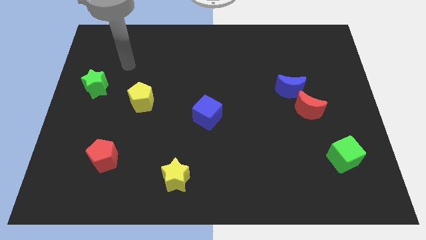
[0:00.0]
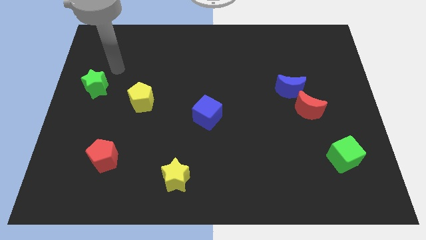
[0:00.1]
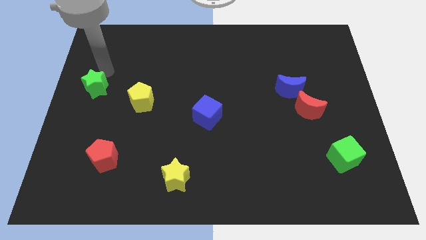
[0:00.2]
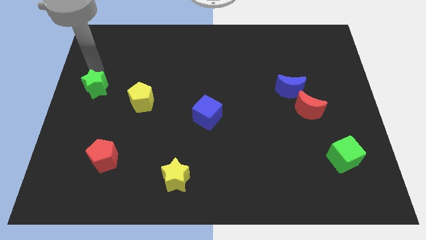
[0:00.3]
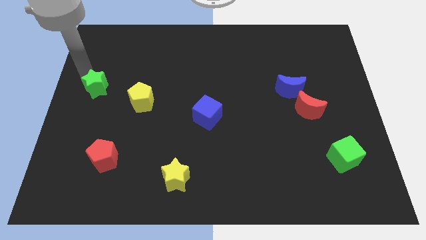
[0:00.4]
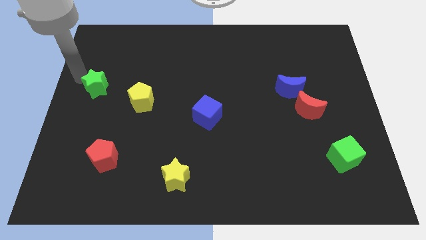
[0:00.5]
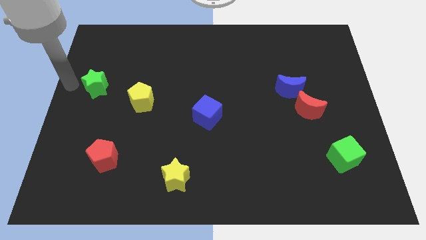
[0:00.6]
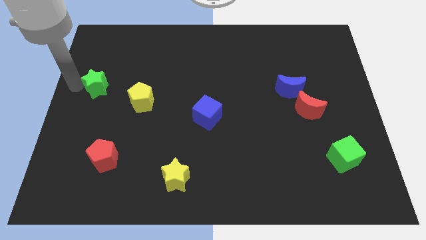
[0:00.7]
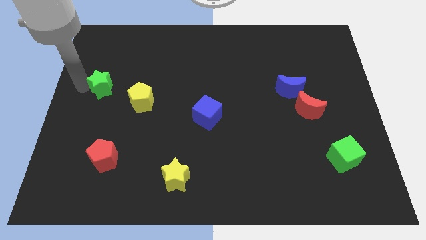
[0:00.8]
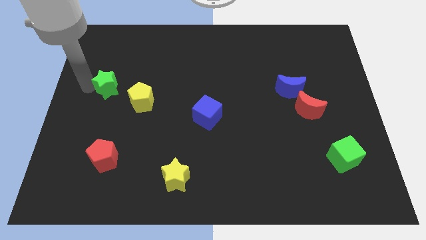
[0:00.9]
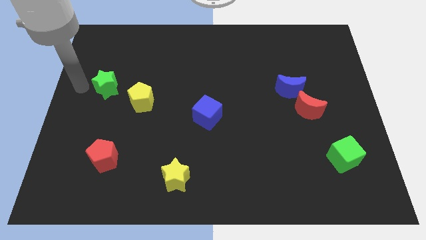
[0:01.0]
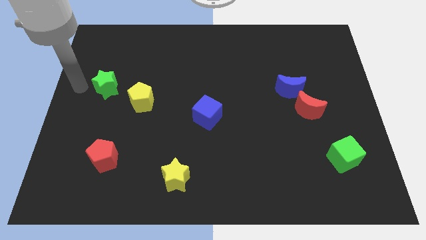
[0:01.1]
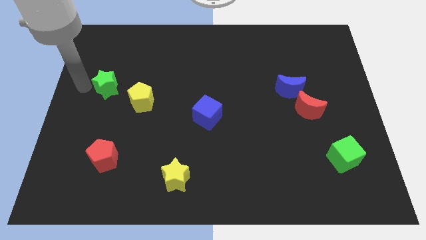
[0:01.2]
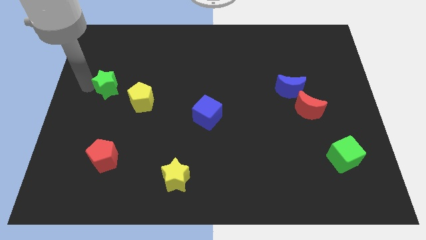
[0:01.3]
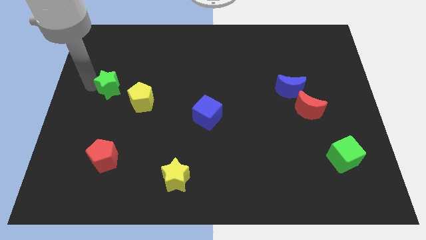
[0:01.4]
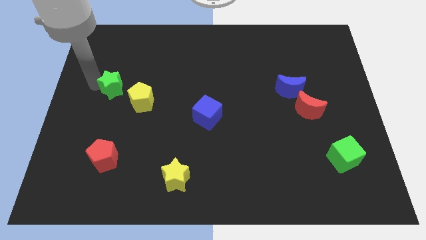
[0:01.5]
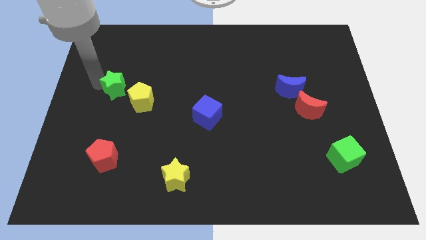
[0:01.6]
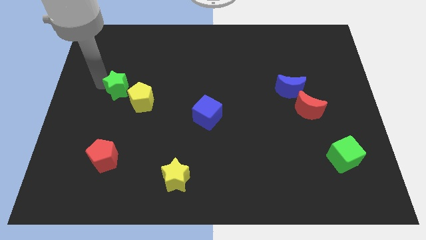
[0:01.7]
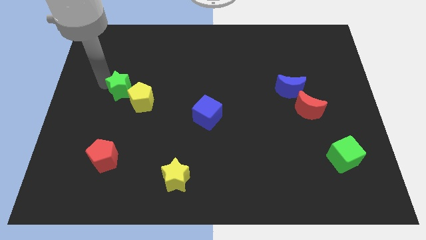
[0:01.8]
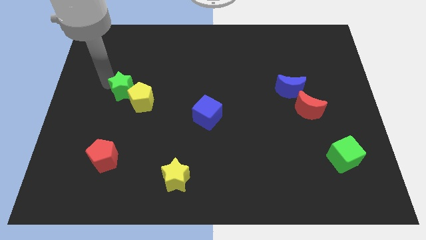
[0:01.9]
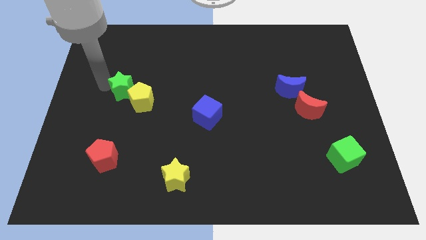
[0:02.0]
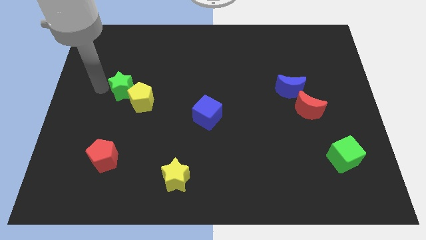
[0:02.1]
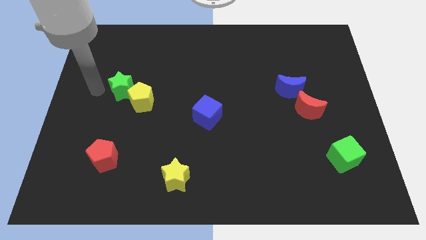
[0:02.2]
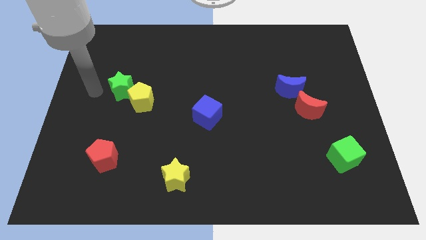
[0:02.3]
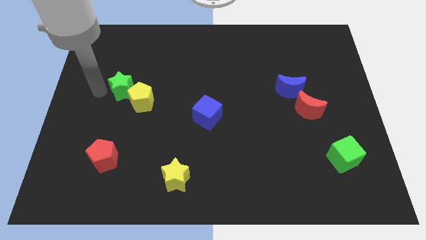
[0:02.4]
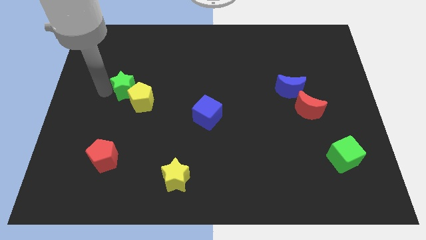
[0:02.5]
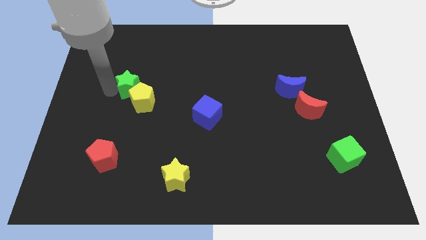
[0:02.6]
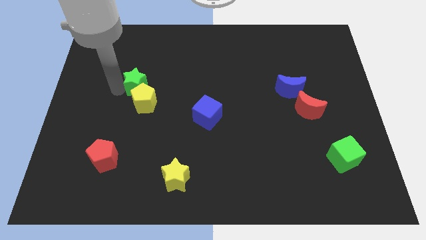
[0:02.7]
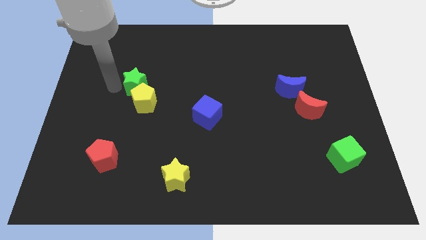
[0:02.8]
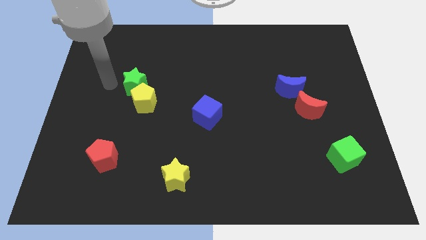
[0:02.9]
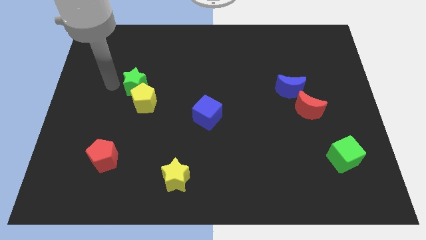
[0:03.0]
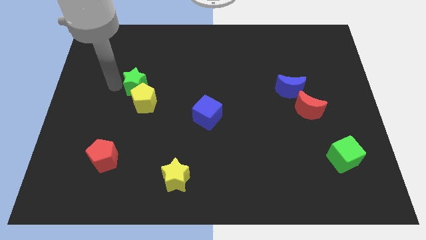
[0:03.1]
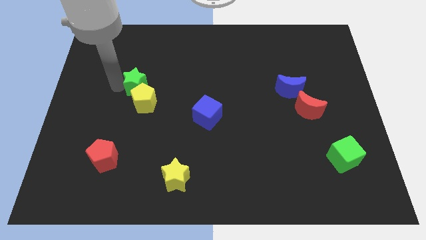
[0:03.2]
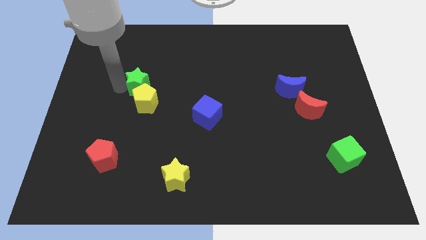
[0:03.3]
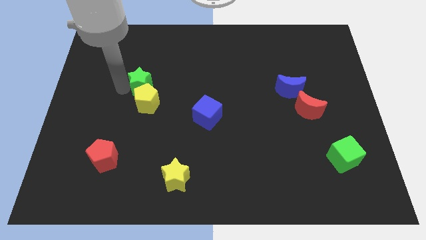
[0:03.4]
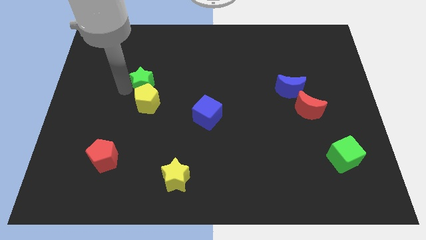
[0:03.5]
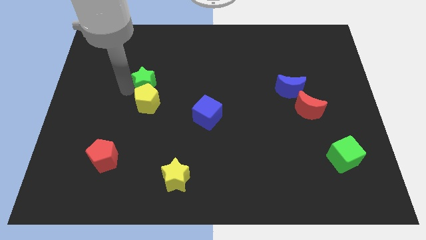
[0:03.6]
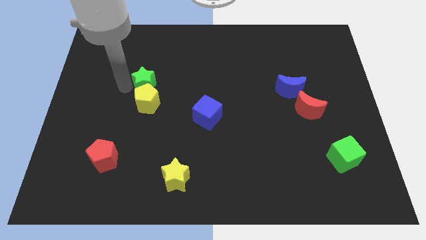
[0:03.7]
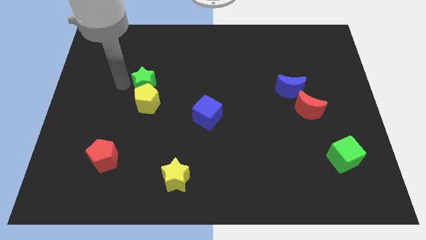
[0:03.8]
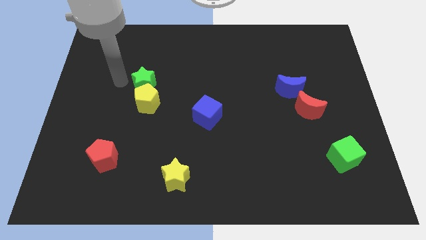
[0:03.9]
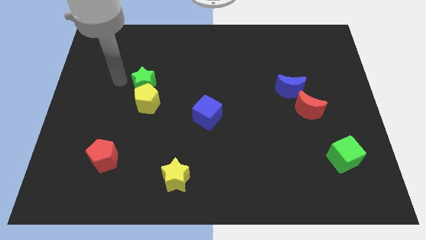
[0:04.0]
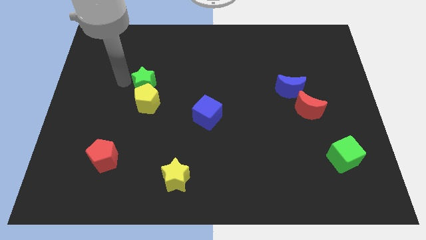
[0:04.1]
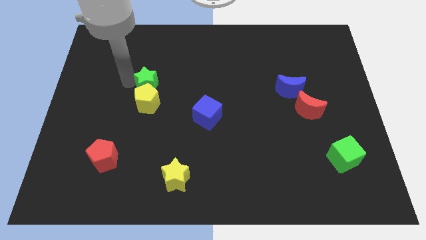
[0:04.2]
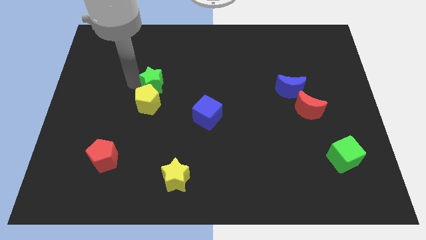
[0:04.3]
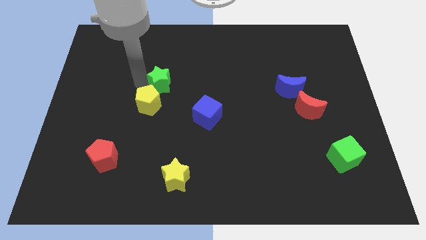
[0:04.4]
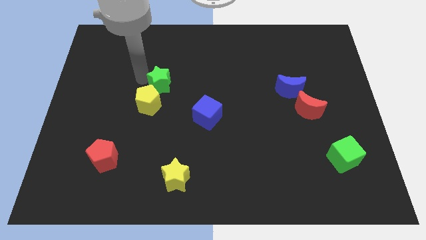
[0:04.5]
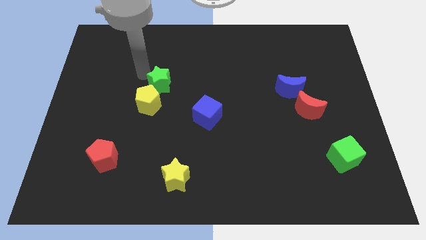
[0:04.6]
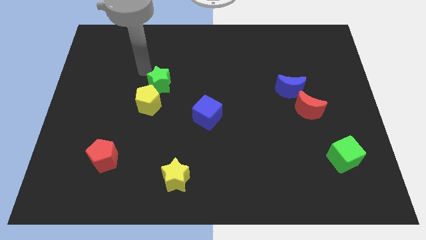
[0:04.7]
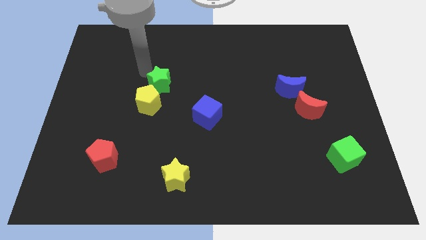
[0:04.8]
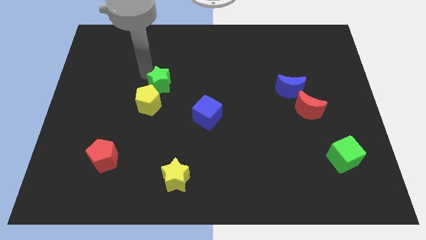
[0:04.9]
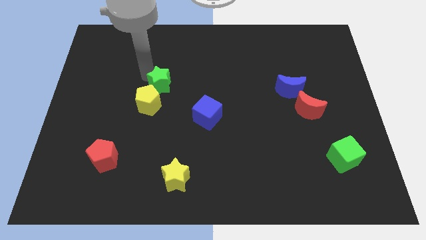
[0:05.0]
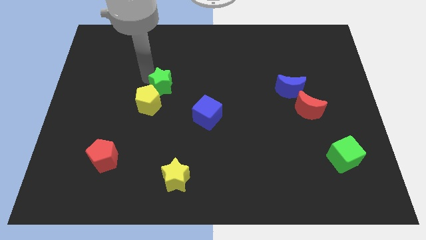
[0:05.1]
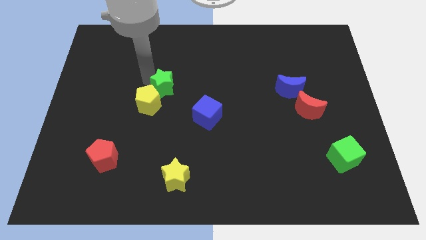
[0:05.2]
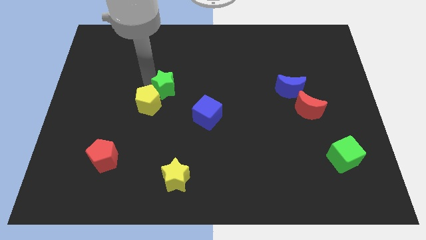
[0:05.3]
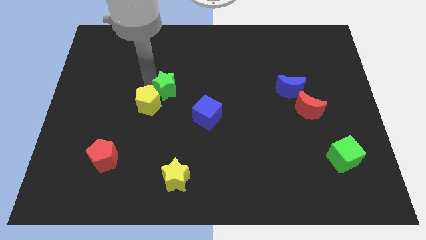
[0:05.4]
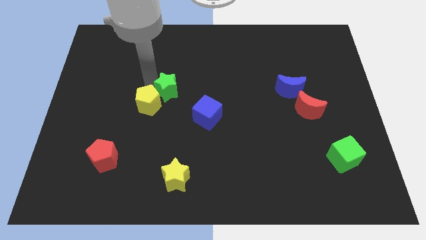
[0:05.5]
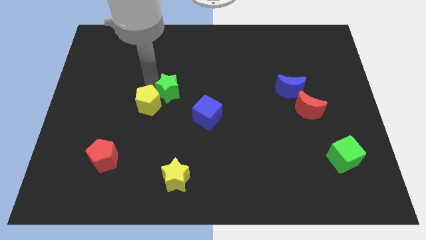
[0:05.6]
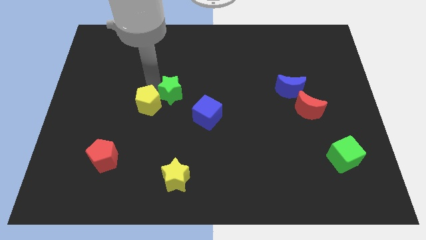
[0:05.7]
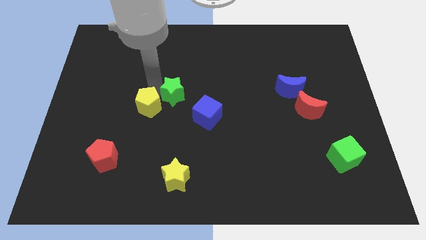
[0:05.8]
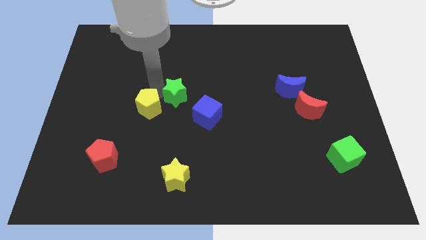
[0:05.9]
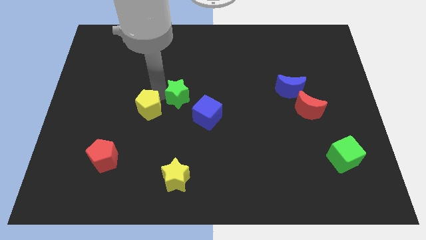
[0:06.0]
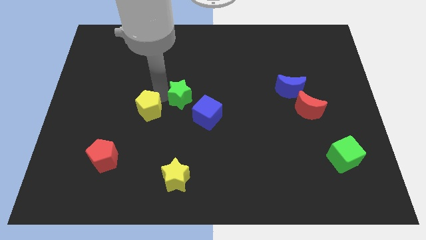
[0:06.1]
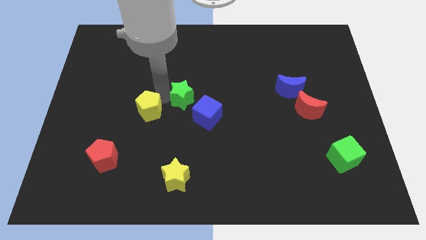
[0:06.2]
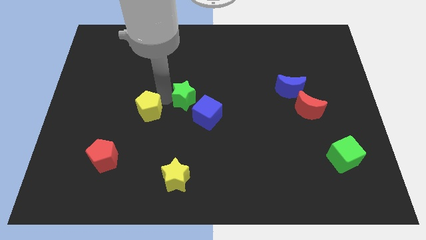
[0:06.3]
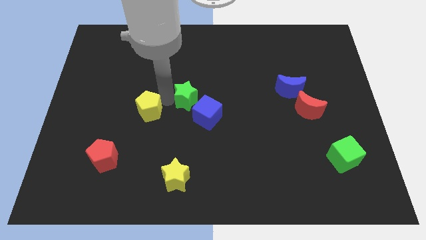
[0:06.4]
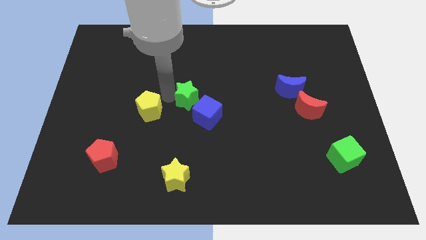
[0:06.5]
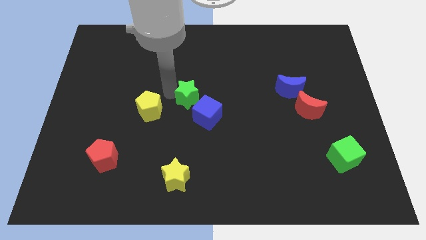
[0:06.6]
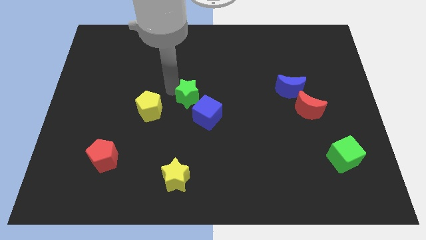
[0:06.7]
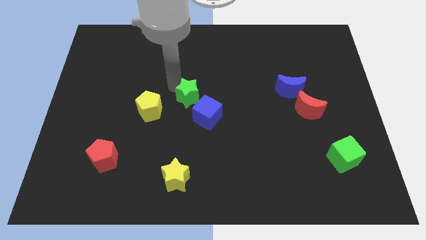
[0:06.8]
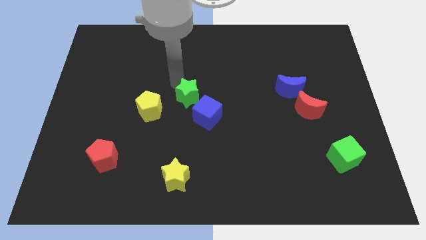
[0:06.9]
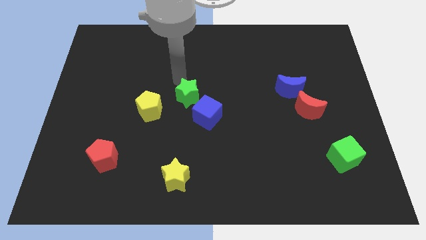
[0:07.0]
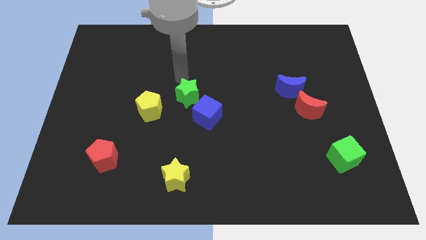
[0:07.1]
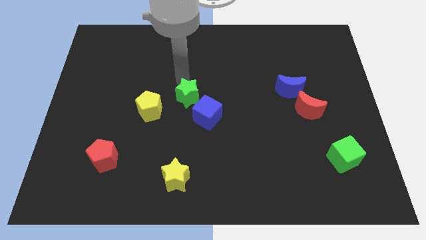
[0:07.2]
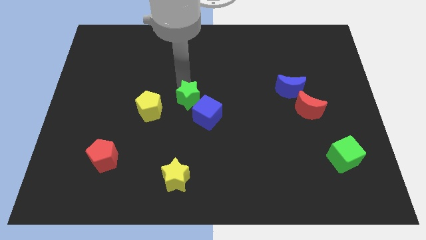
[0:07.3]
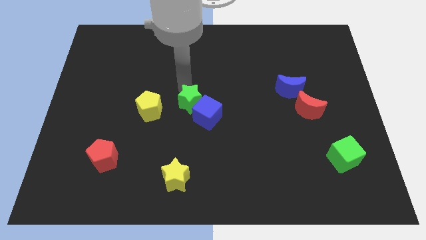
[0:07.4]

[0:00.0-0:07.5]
put the green star close to the blue cube
